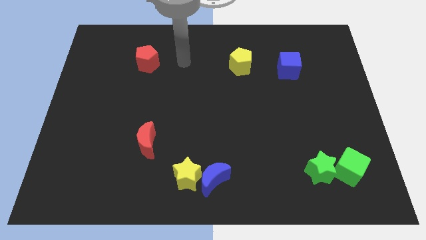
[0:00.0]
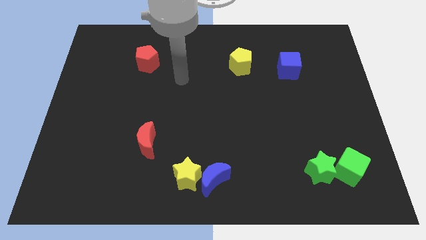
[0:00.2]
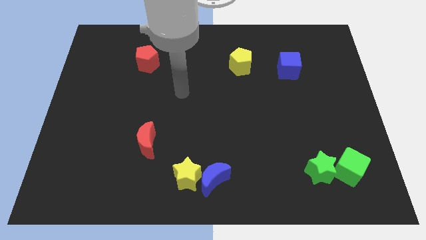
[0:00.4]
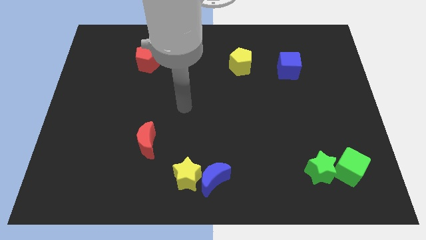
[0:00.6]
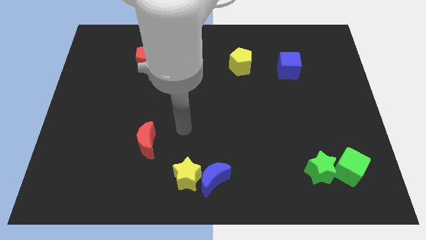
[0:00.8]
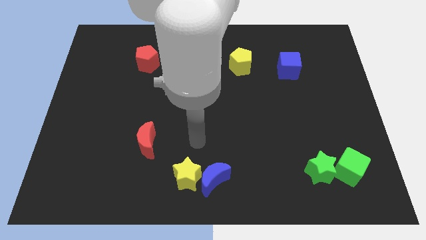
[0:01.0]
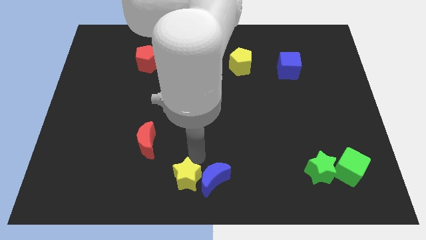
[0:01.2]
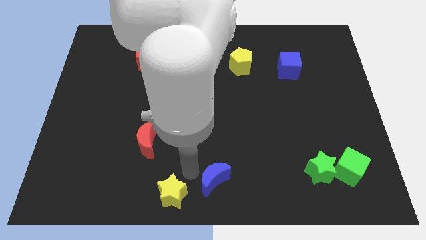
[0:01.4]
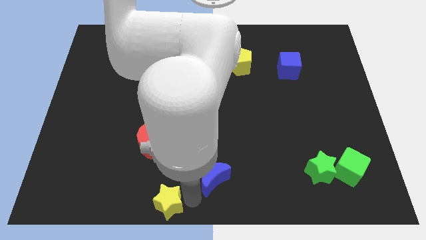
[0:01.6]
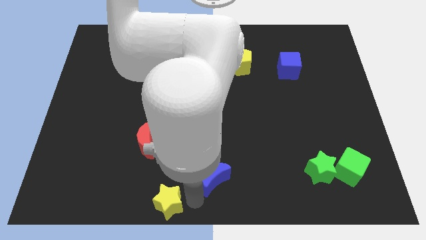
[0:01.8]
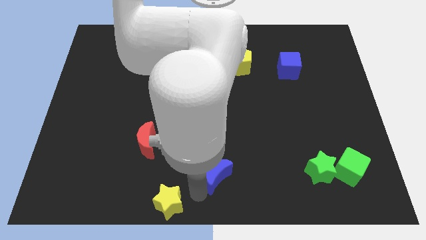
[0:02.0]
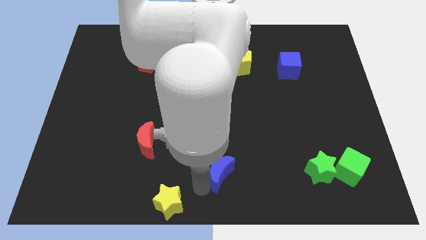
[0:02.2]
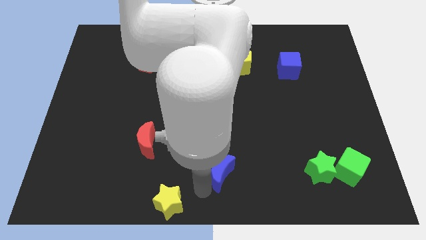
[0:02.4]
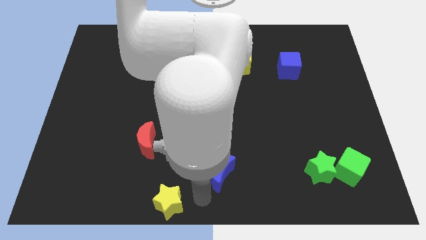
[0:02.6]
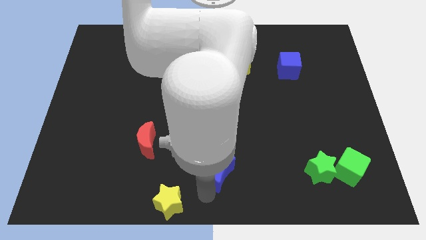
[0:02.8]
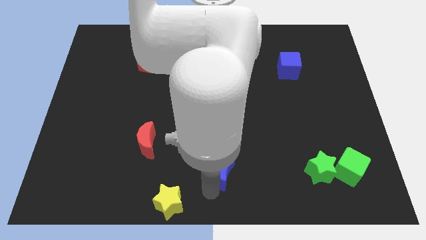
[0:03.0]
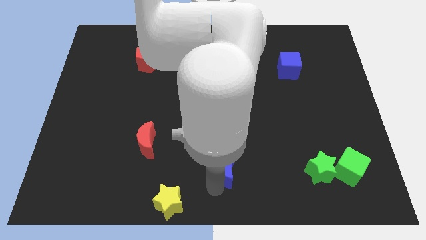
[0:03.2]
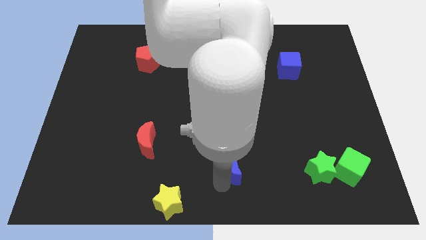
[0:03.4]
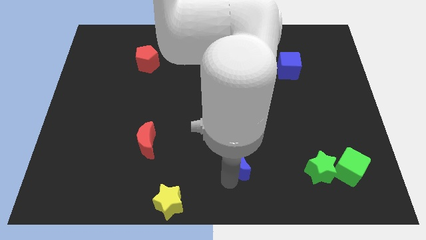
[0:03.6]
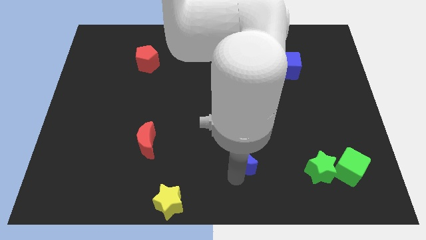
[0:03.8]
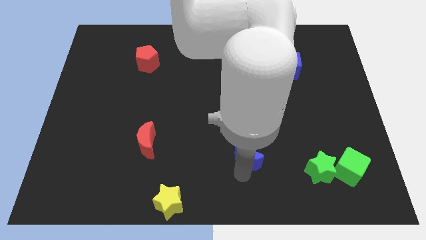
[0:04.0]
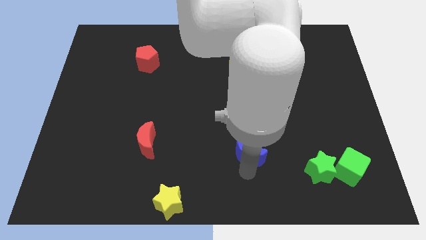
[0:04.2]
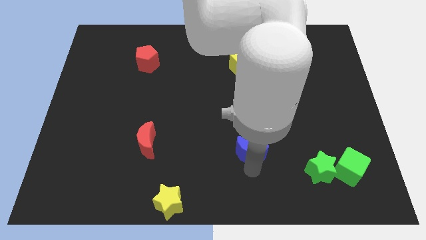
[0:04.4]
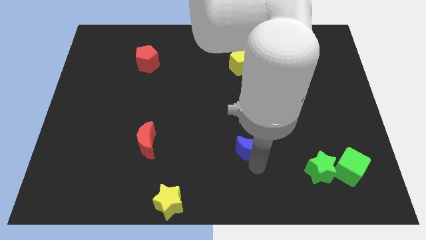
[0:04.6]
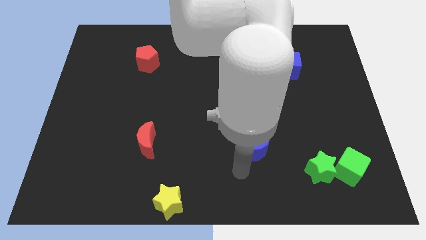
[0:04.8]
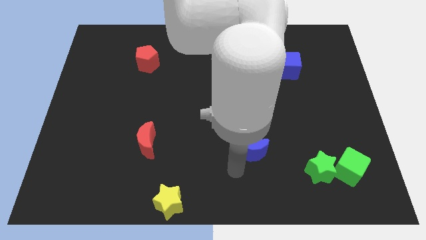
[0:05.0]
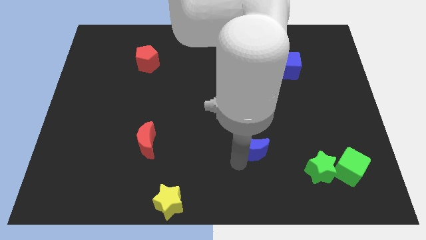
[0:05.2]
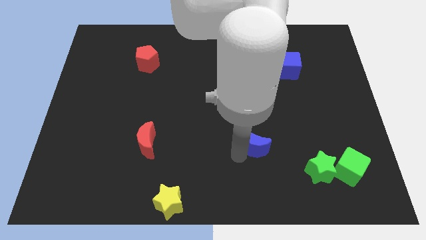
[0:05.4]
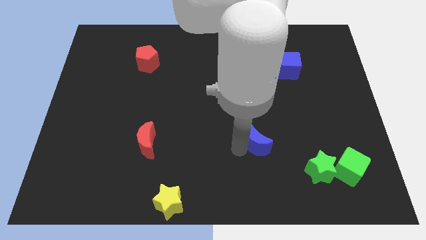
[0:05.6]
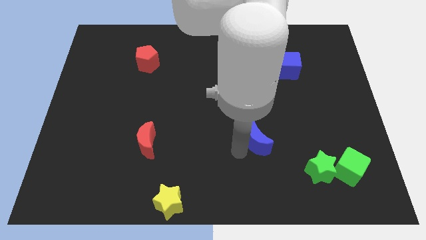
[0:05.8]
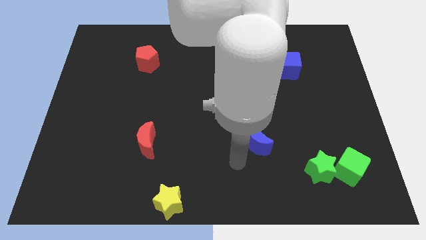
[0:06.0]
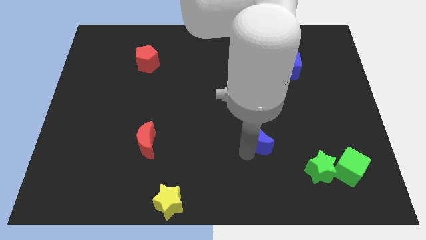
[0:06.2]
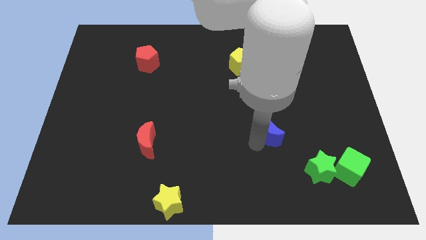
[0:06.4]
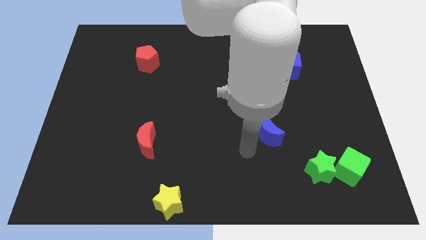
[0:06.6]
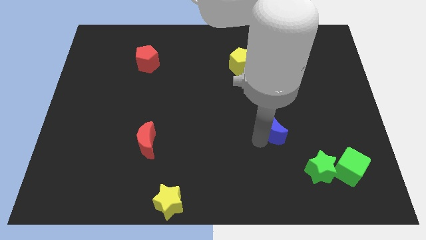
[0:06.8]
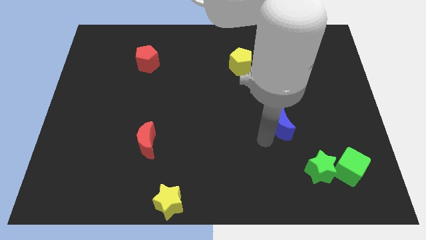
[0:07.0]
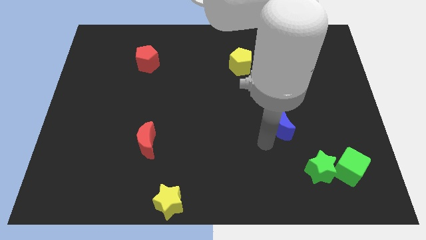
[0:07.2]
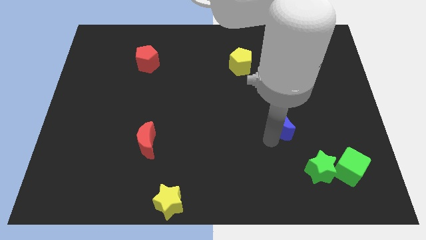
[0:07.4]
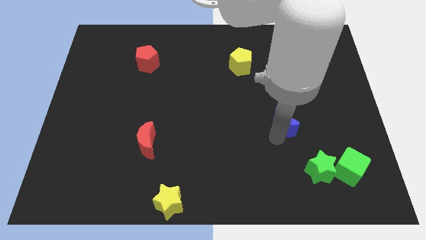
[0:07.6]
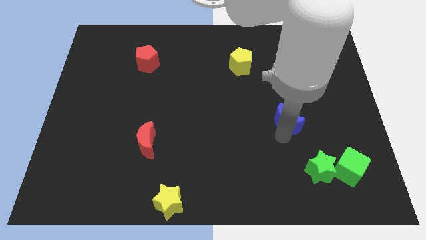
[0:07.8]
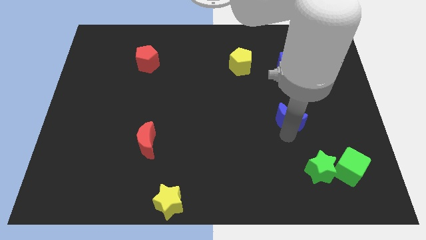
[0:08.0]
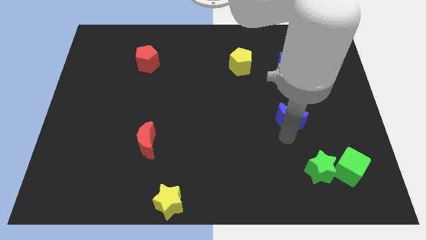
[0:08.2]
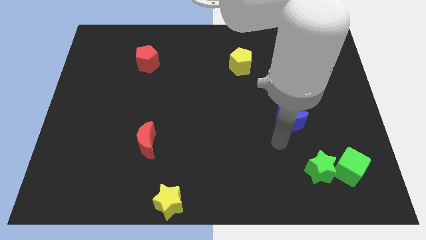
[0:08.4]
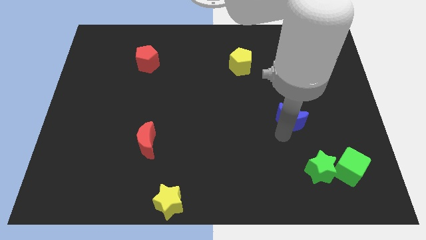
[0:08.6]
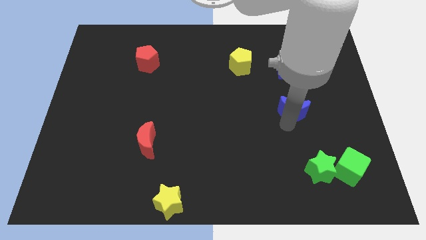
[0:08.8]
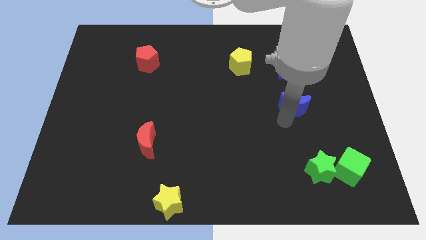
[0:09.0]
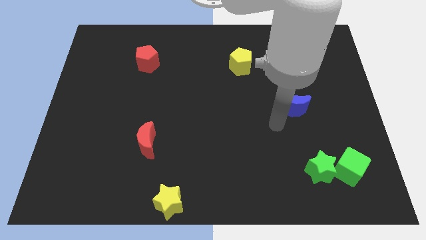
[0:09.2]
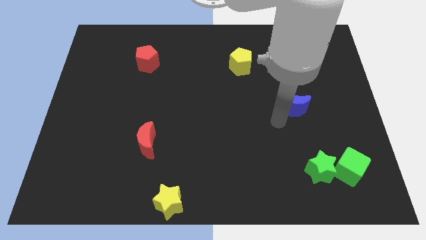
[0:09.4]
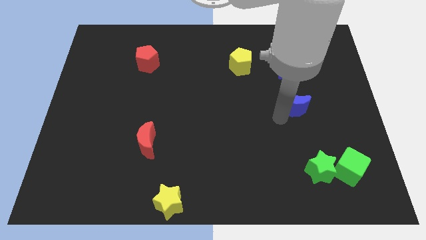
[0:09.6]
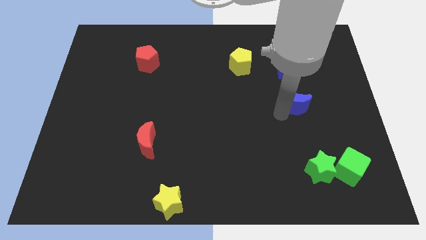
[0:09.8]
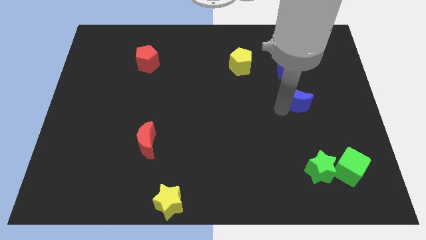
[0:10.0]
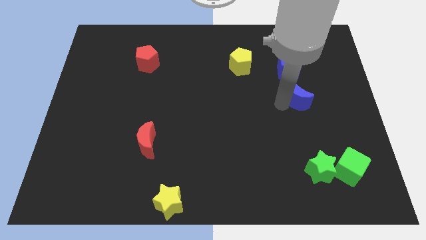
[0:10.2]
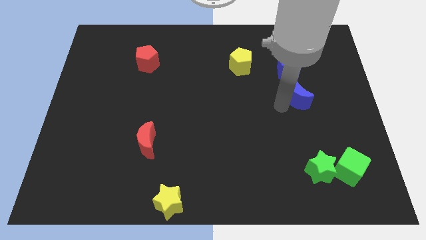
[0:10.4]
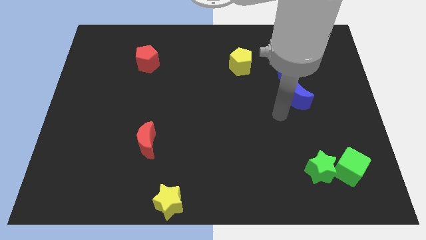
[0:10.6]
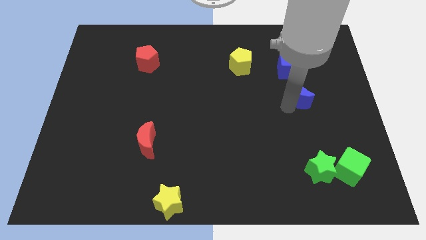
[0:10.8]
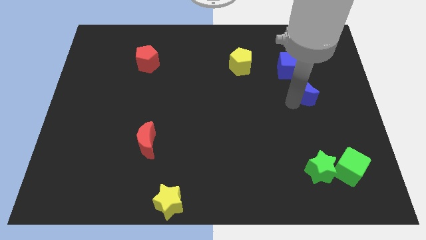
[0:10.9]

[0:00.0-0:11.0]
slide the blue moon to the bottom right side of the blue cube

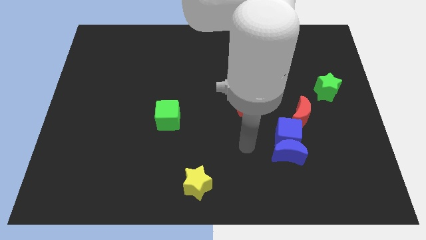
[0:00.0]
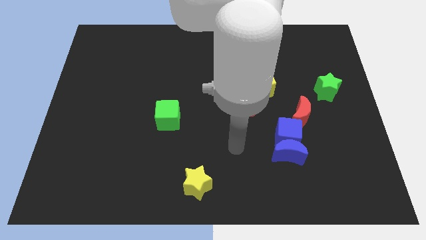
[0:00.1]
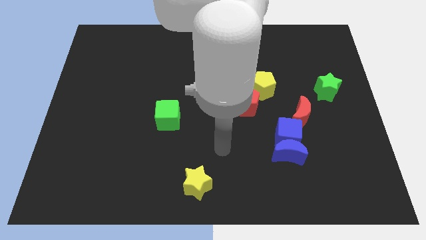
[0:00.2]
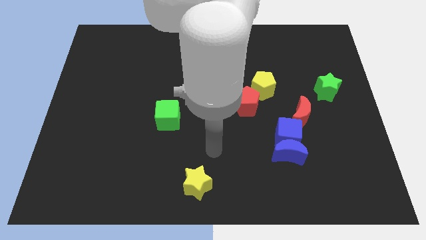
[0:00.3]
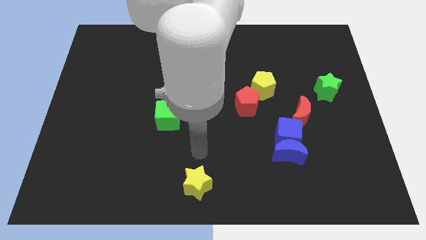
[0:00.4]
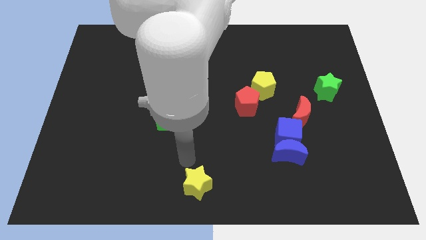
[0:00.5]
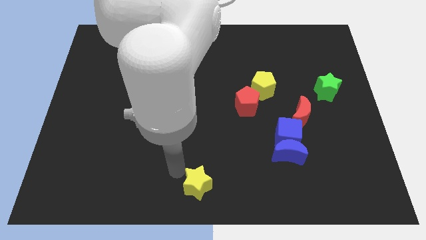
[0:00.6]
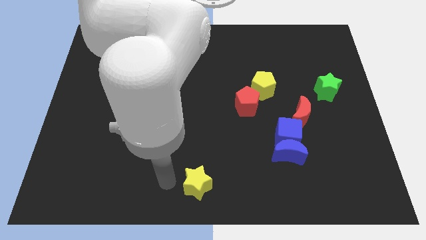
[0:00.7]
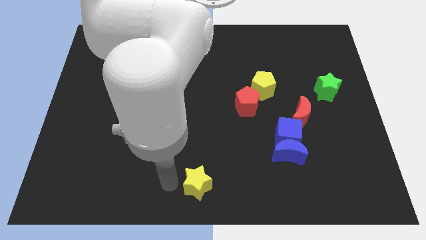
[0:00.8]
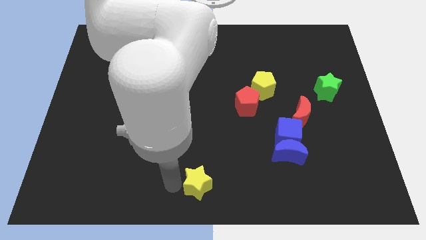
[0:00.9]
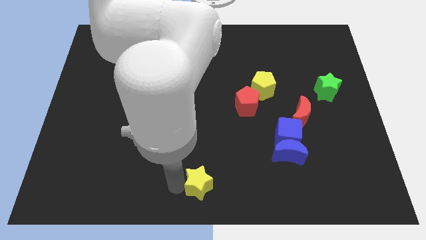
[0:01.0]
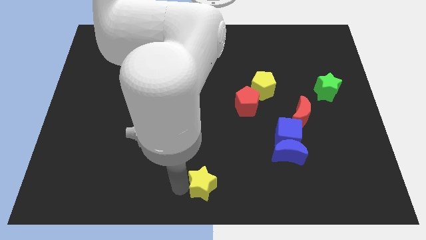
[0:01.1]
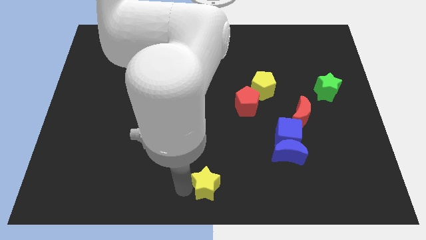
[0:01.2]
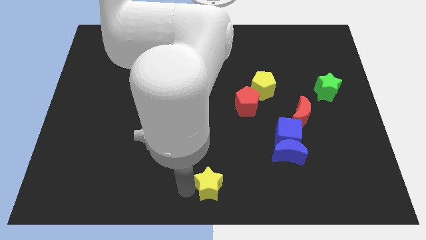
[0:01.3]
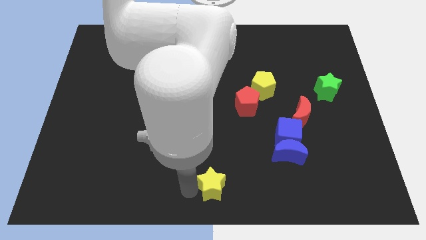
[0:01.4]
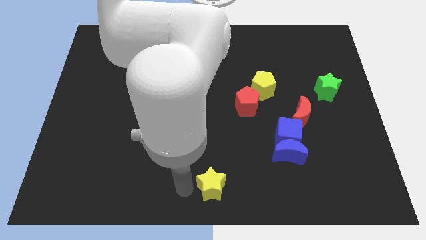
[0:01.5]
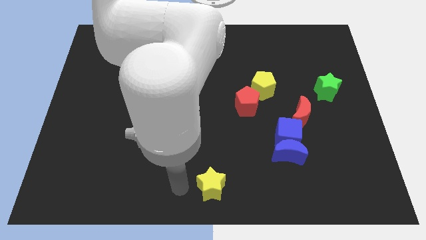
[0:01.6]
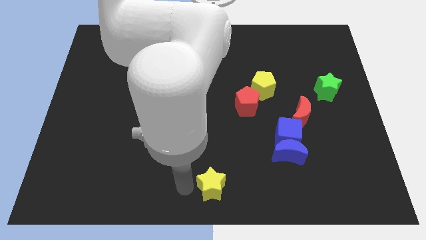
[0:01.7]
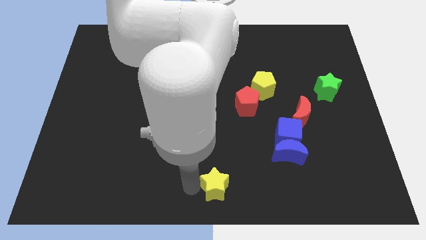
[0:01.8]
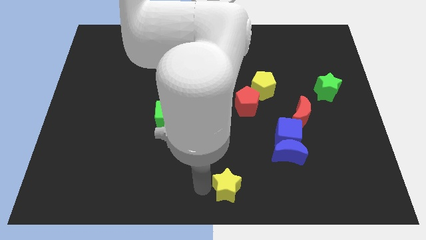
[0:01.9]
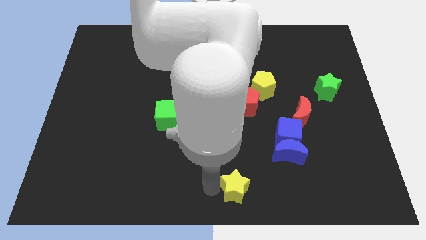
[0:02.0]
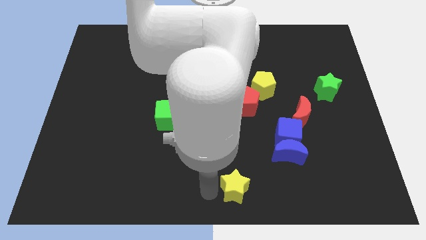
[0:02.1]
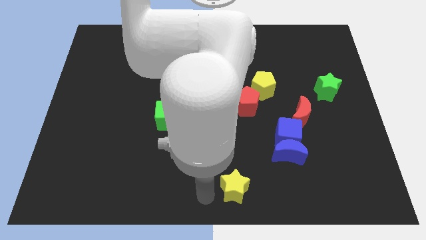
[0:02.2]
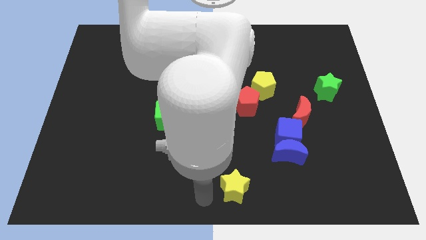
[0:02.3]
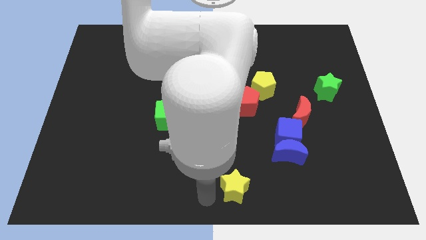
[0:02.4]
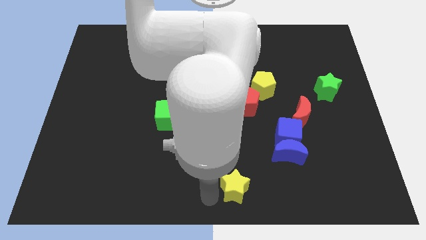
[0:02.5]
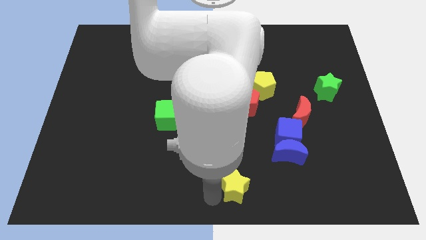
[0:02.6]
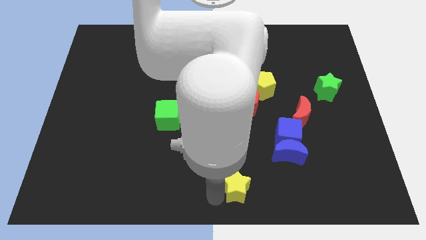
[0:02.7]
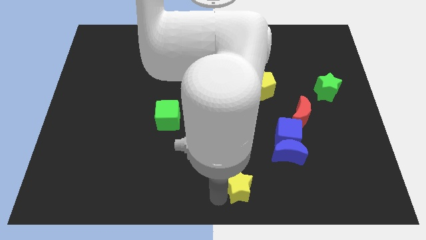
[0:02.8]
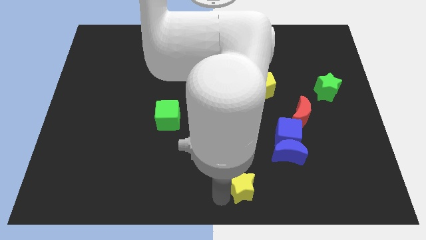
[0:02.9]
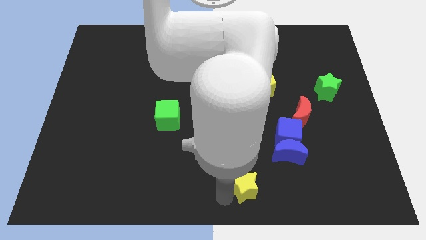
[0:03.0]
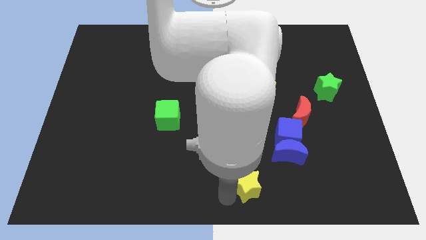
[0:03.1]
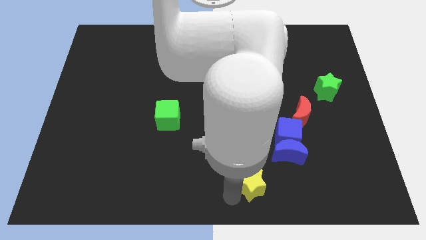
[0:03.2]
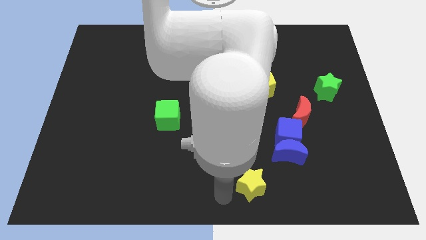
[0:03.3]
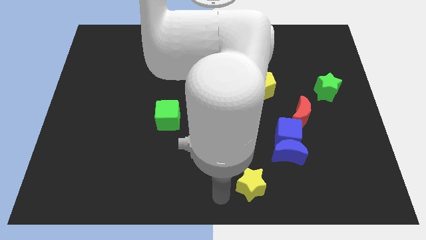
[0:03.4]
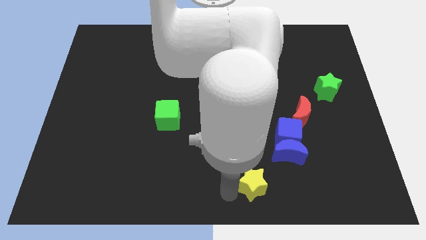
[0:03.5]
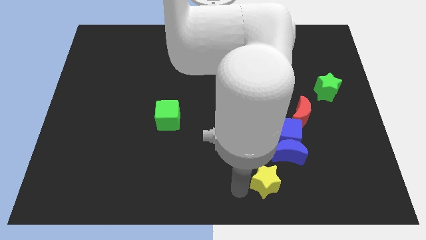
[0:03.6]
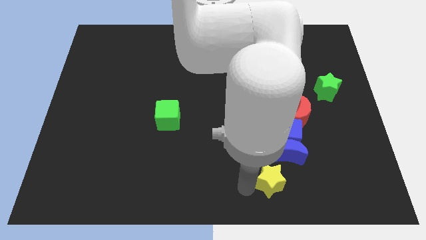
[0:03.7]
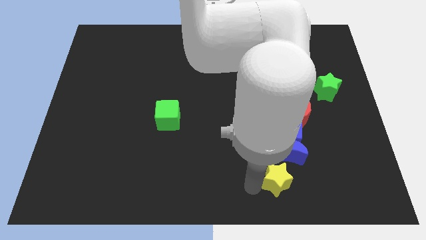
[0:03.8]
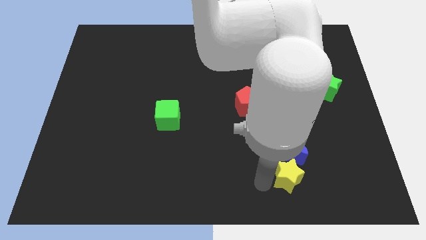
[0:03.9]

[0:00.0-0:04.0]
put the yellow star to the bottom right side of the blue moon
